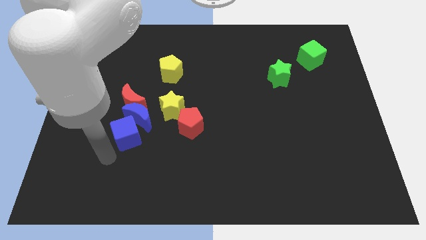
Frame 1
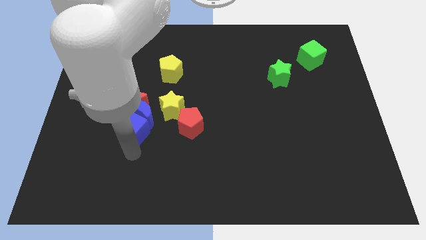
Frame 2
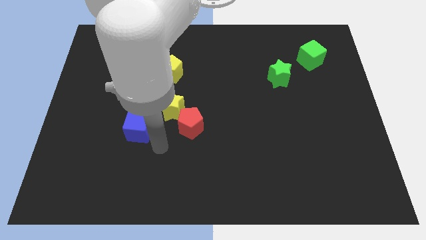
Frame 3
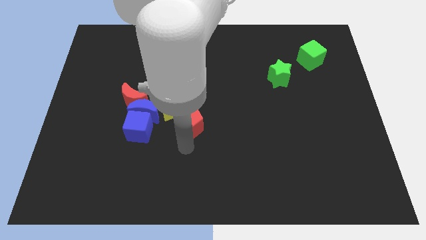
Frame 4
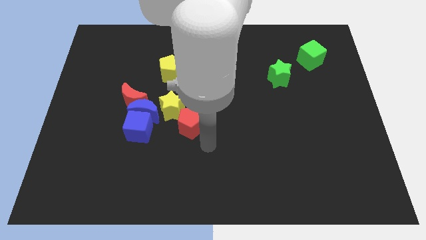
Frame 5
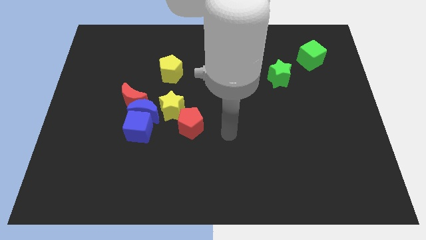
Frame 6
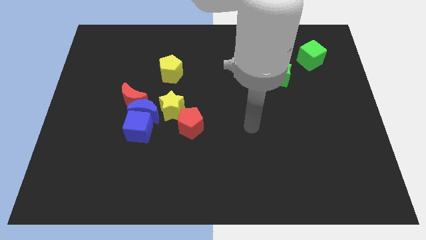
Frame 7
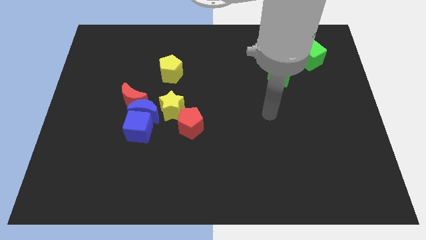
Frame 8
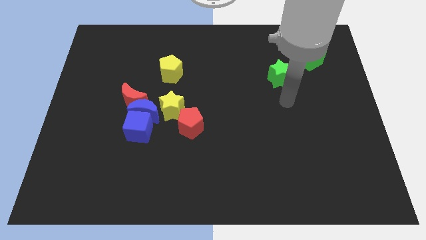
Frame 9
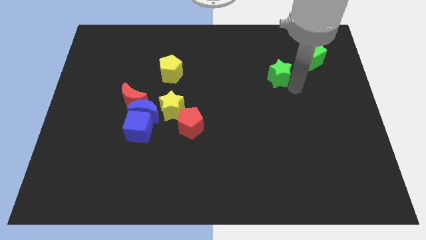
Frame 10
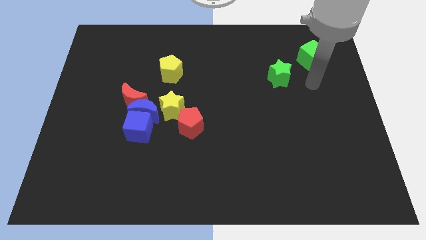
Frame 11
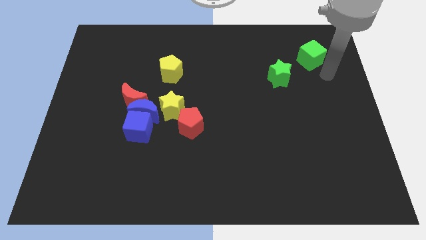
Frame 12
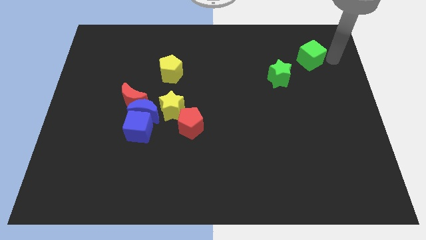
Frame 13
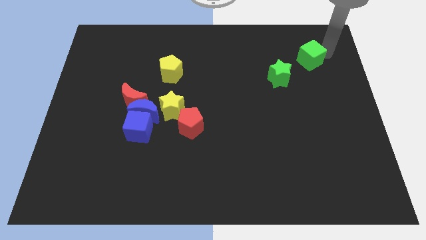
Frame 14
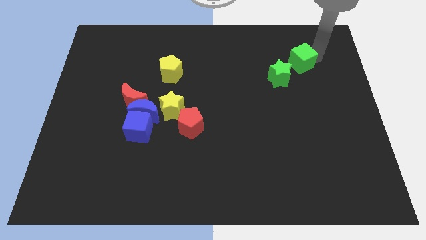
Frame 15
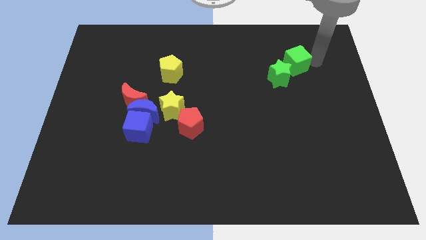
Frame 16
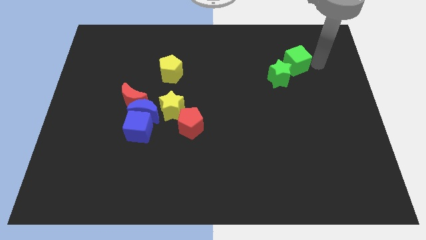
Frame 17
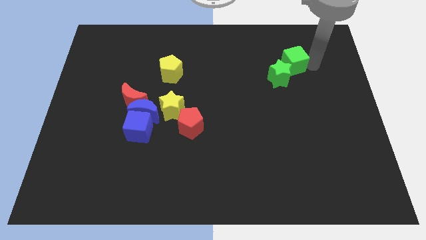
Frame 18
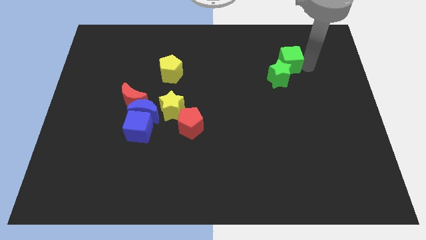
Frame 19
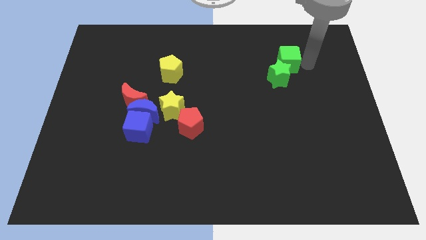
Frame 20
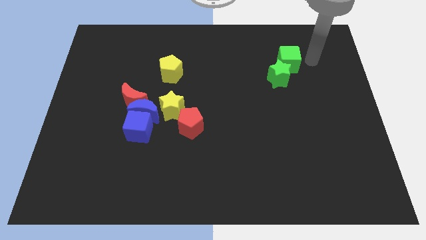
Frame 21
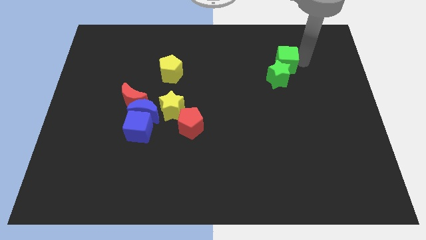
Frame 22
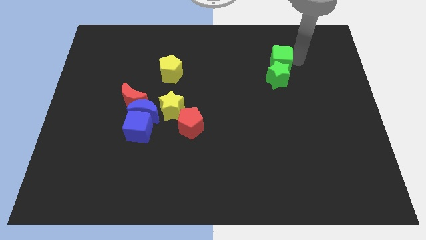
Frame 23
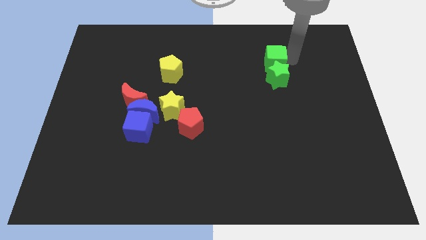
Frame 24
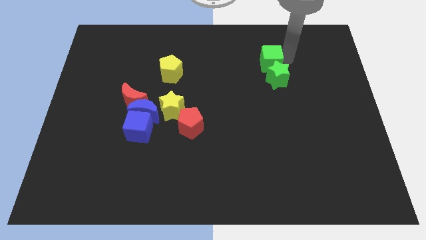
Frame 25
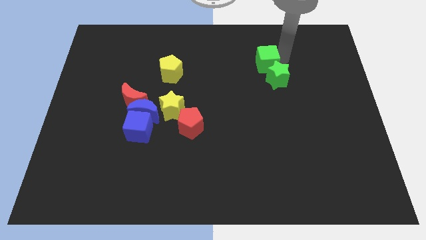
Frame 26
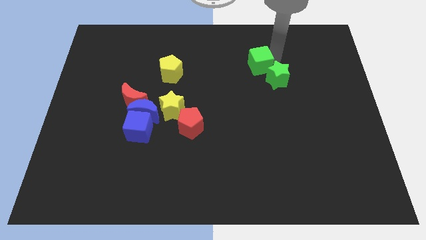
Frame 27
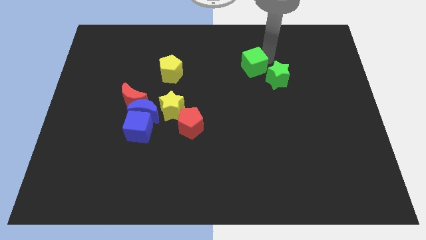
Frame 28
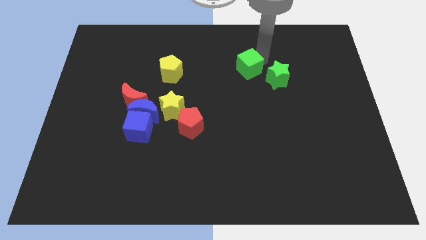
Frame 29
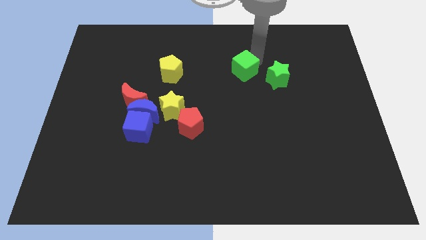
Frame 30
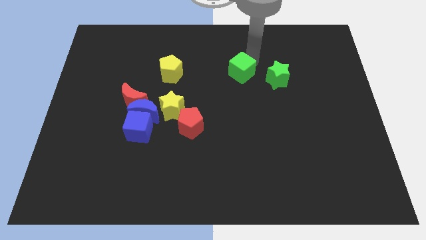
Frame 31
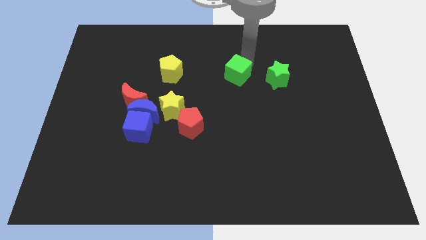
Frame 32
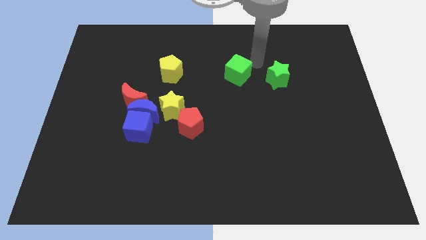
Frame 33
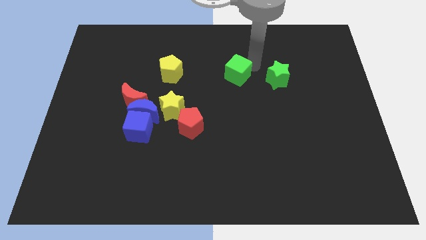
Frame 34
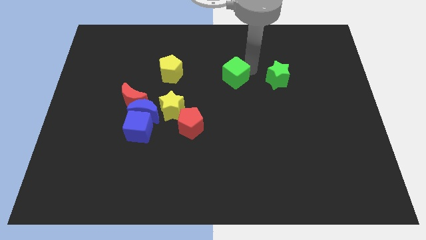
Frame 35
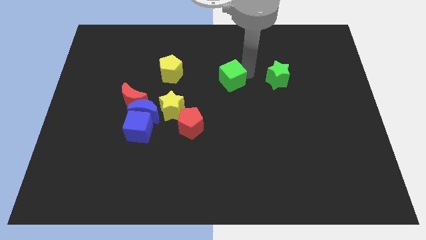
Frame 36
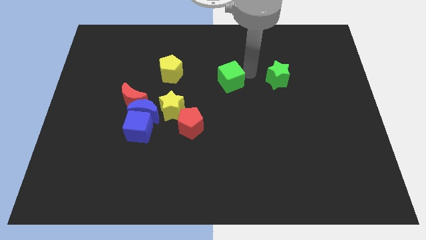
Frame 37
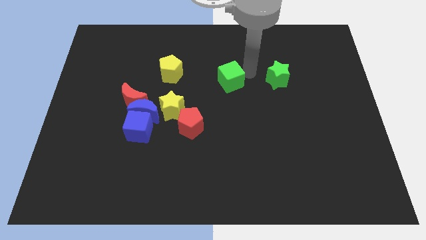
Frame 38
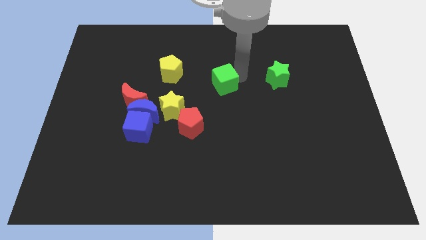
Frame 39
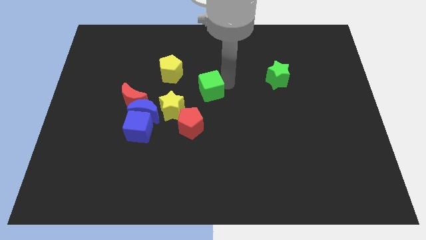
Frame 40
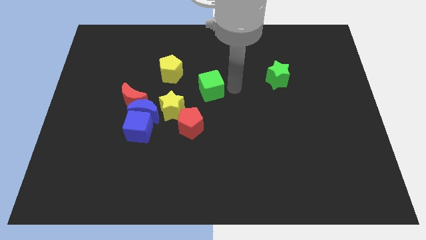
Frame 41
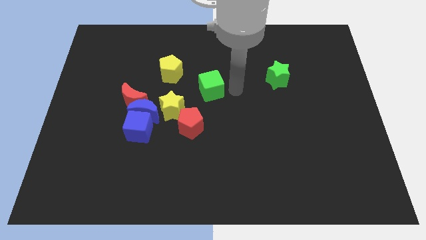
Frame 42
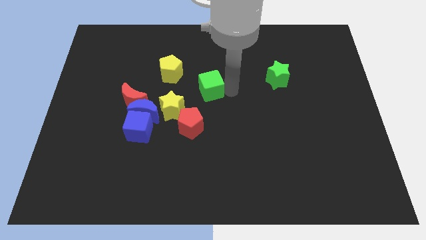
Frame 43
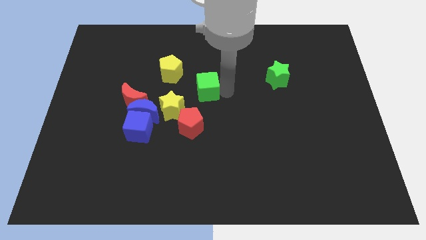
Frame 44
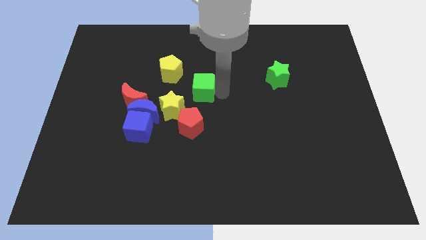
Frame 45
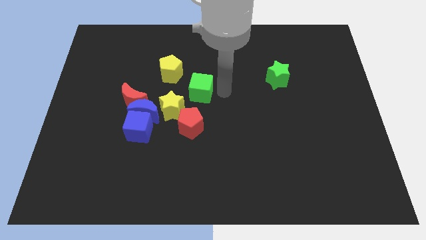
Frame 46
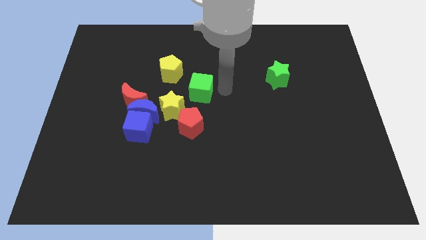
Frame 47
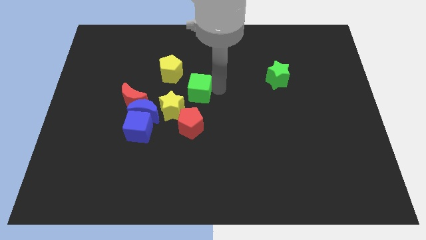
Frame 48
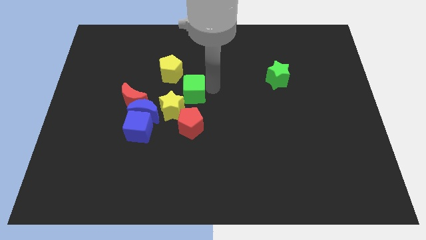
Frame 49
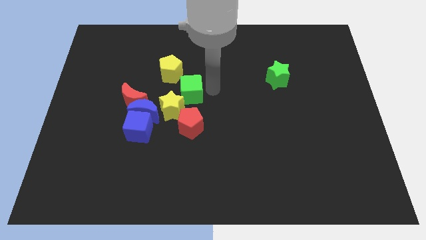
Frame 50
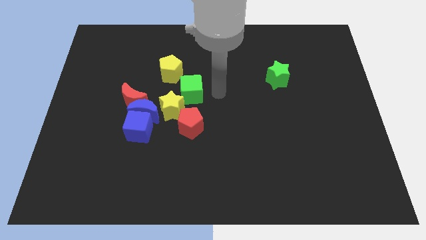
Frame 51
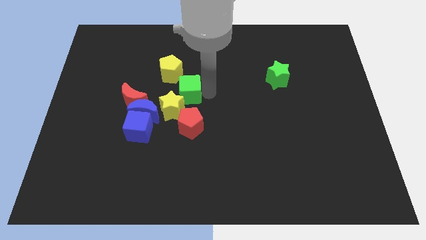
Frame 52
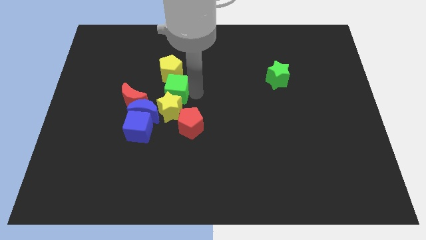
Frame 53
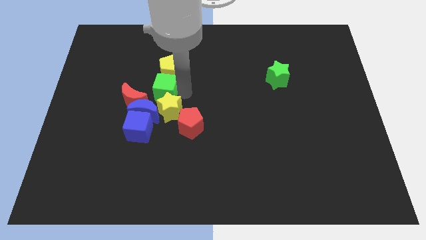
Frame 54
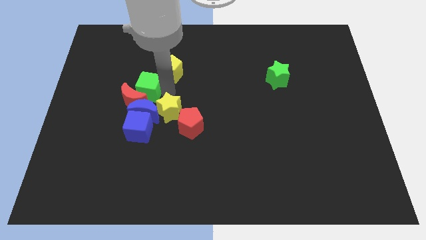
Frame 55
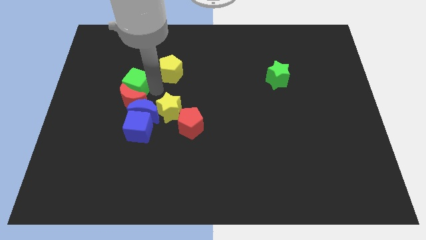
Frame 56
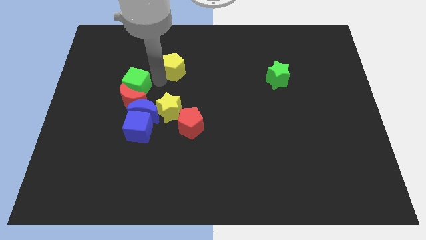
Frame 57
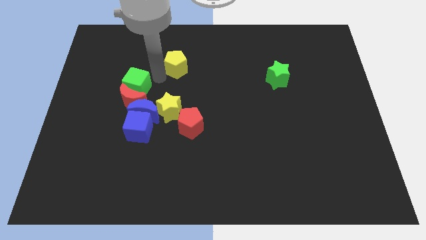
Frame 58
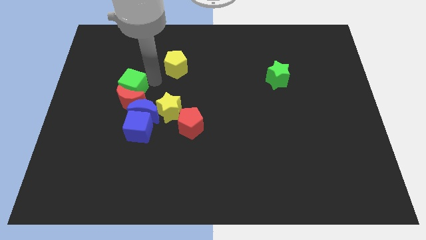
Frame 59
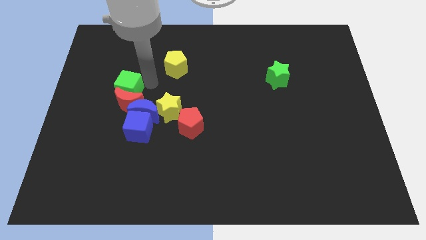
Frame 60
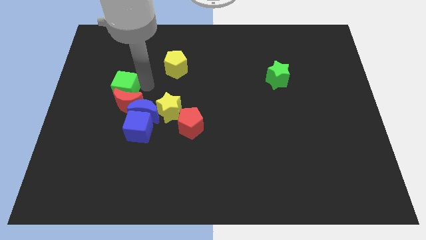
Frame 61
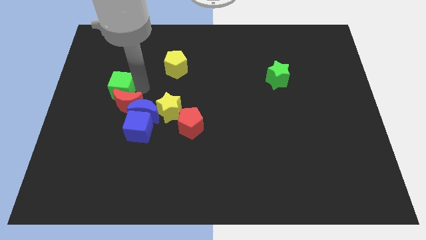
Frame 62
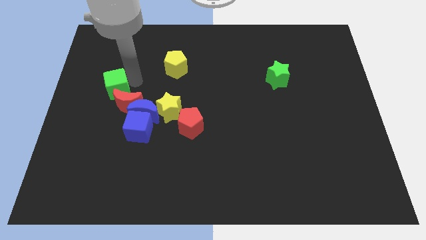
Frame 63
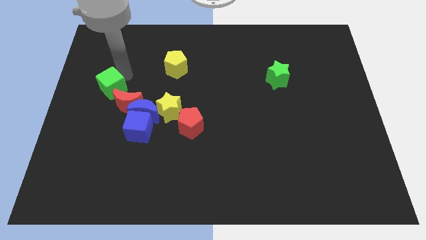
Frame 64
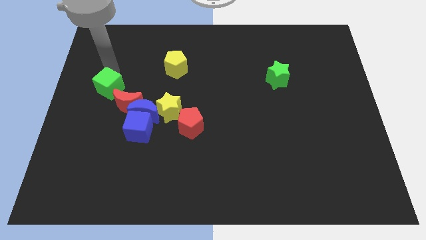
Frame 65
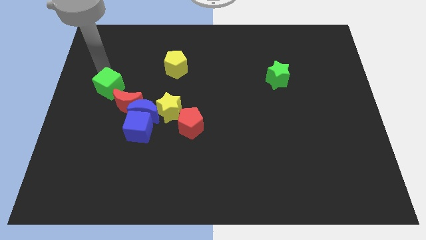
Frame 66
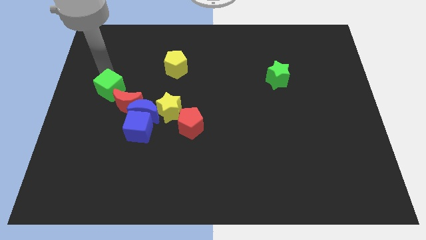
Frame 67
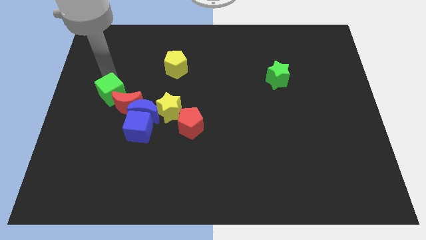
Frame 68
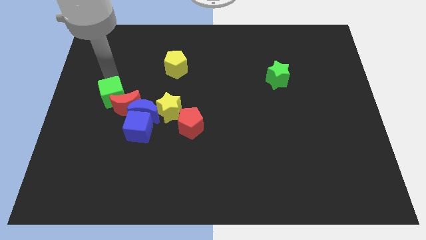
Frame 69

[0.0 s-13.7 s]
push the green cube to the top left of the blue cube

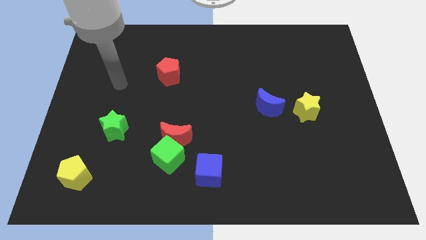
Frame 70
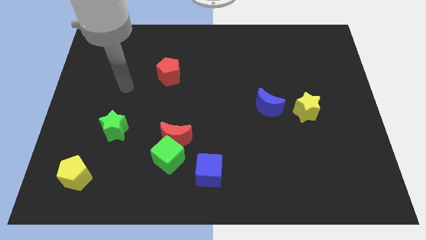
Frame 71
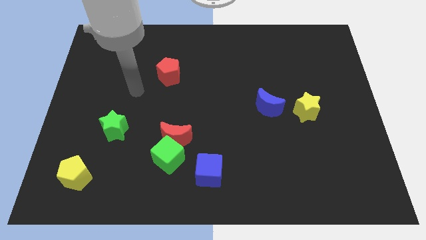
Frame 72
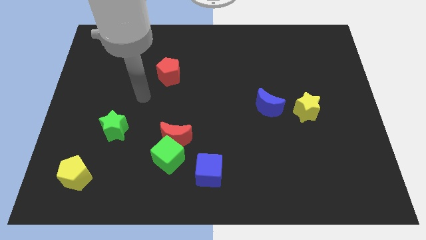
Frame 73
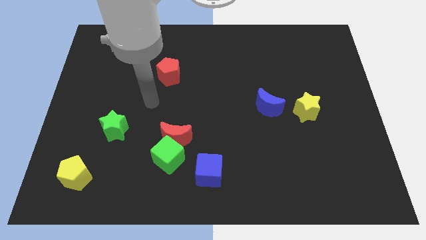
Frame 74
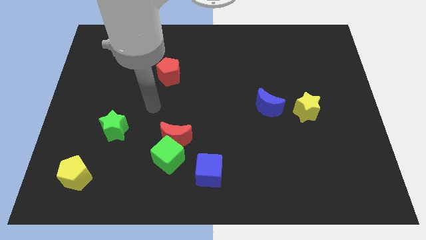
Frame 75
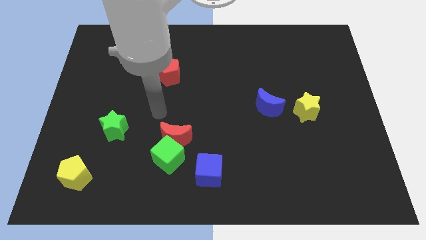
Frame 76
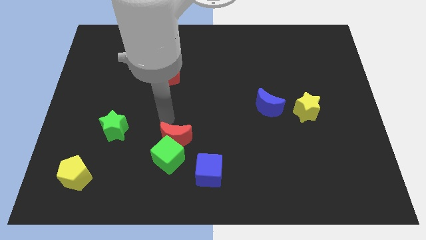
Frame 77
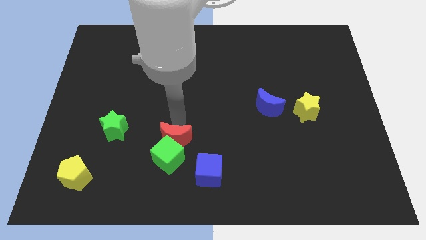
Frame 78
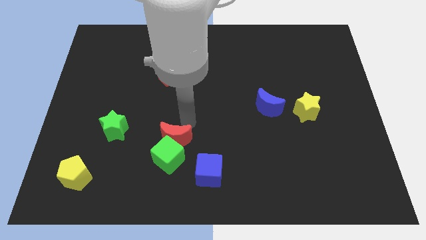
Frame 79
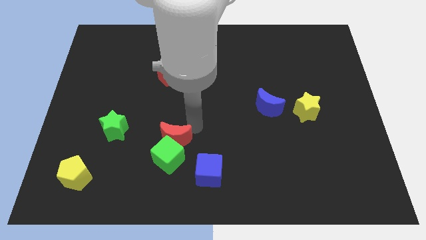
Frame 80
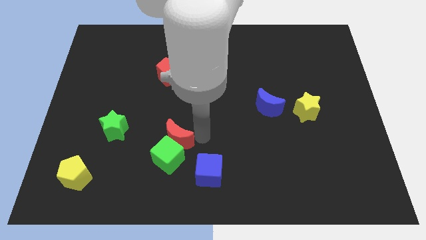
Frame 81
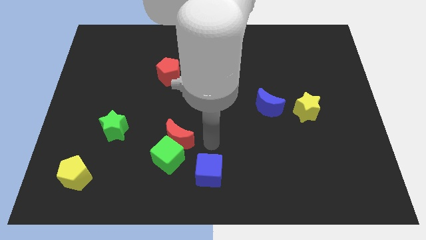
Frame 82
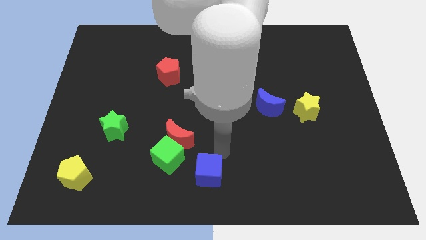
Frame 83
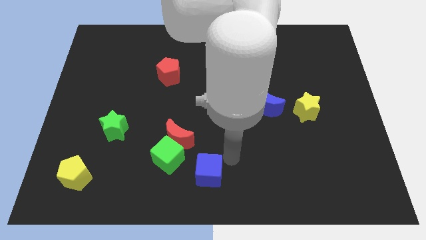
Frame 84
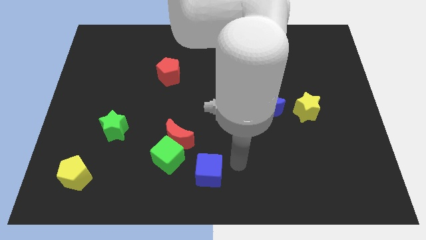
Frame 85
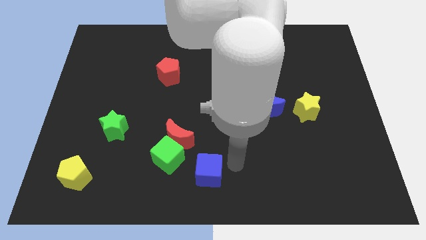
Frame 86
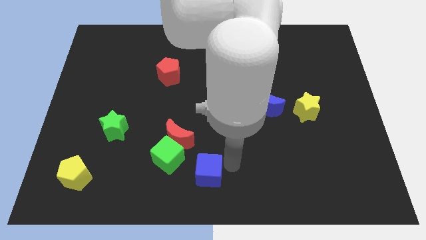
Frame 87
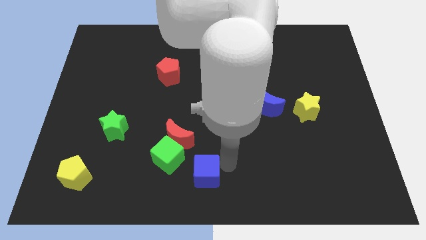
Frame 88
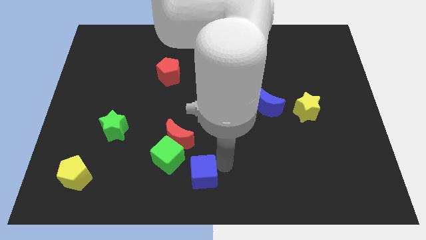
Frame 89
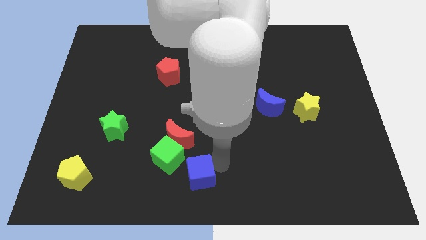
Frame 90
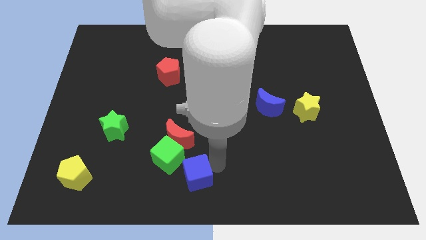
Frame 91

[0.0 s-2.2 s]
push the blue cube to the bottom side of the red moon
